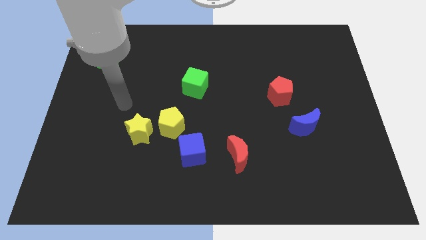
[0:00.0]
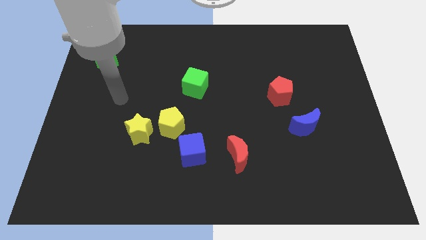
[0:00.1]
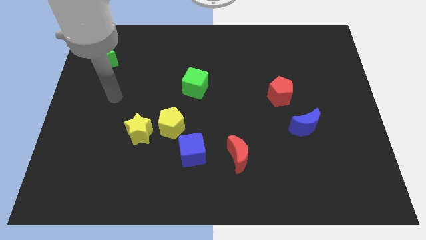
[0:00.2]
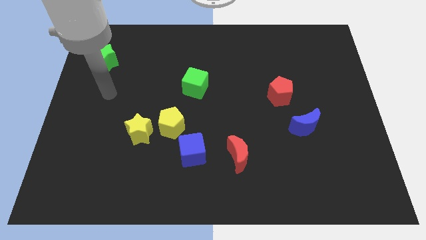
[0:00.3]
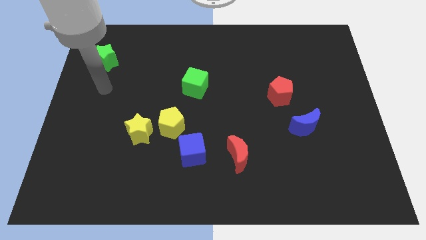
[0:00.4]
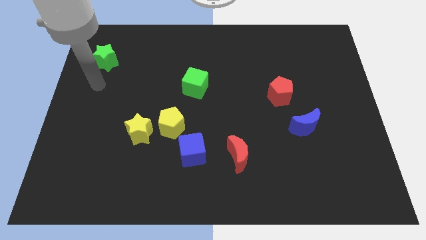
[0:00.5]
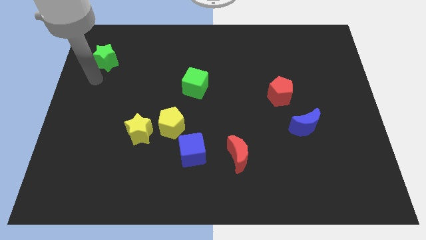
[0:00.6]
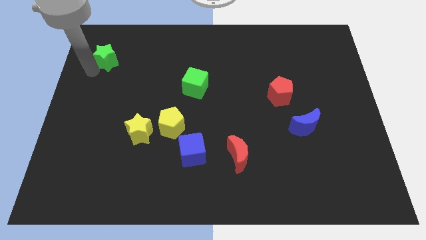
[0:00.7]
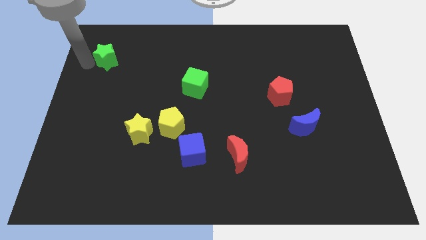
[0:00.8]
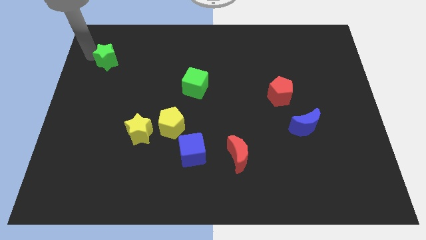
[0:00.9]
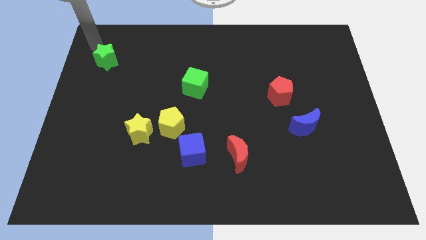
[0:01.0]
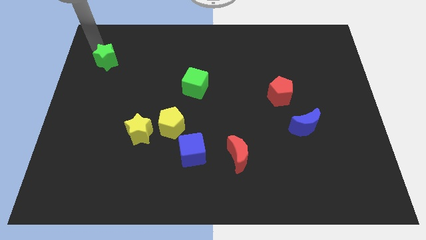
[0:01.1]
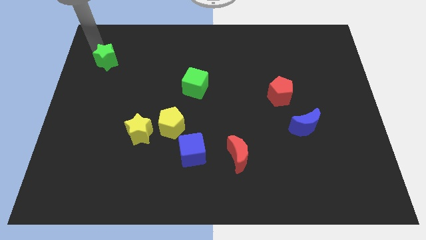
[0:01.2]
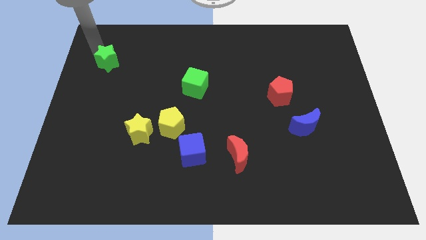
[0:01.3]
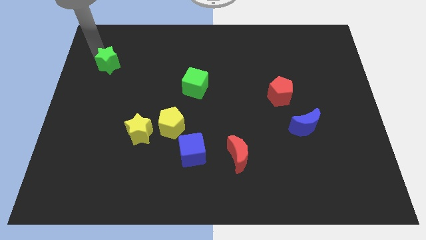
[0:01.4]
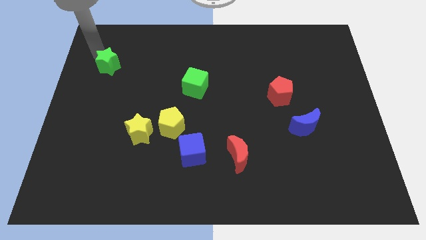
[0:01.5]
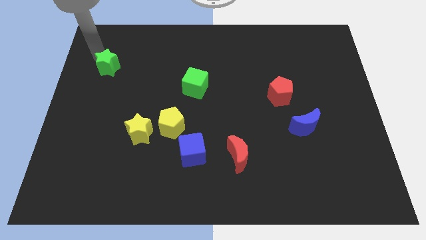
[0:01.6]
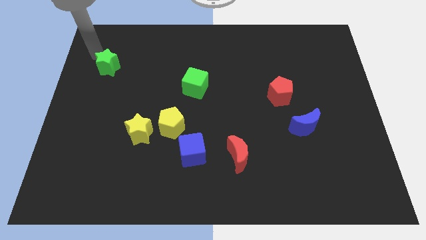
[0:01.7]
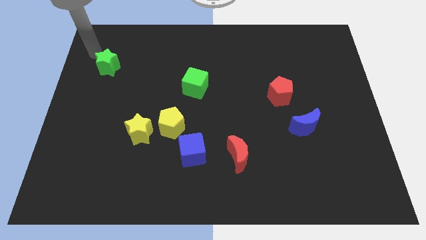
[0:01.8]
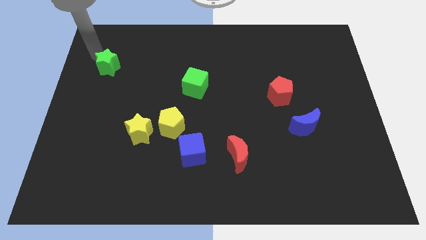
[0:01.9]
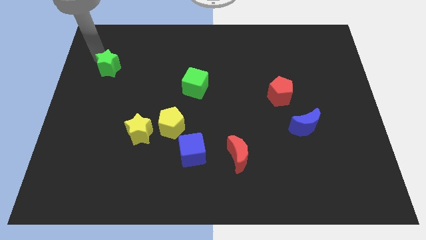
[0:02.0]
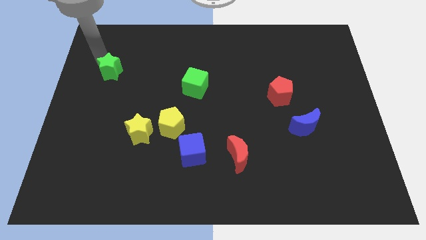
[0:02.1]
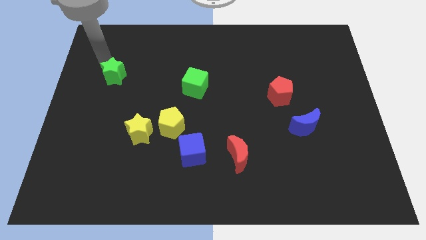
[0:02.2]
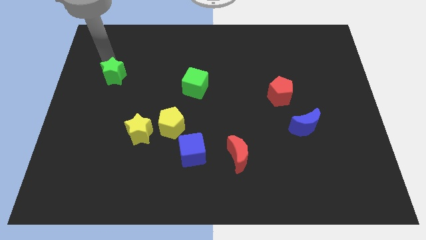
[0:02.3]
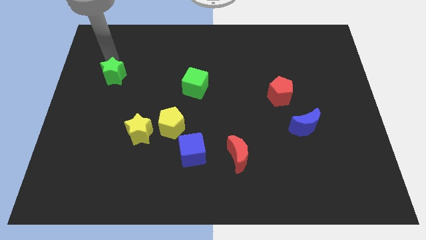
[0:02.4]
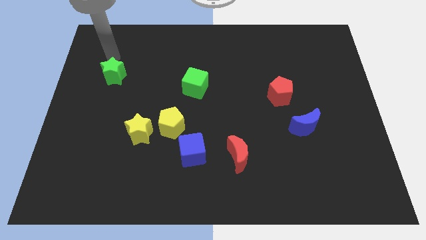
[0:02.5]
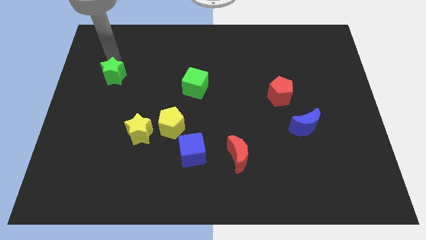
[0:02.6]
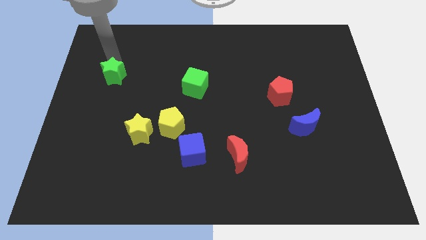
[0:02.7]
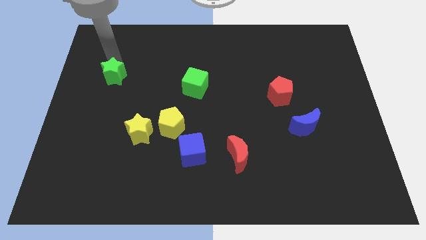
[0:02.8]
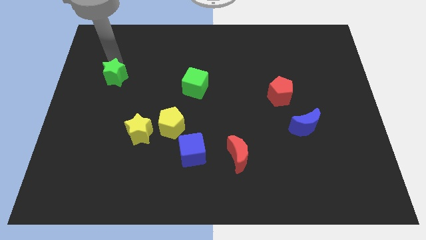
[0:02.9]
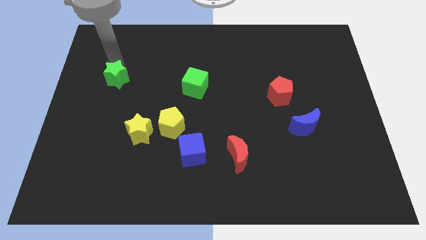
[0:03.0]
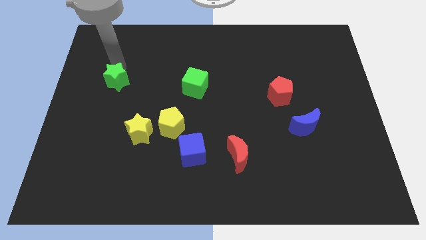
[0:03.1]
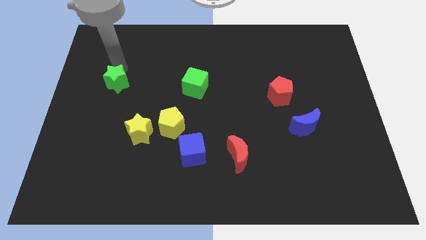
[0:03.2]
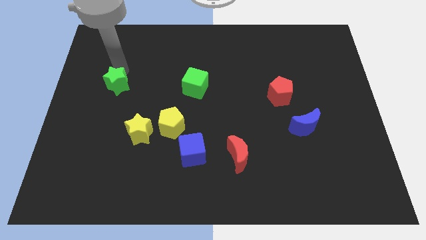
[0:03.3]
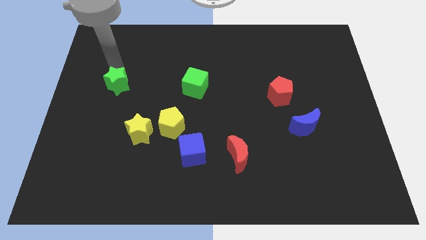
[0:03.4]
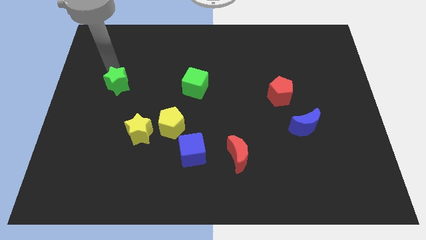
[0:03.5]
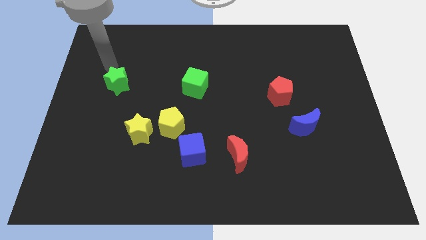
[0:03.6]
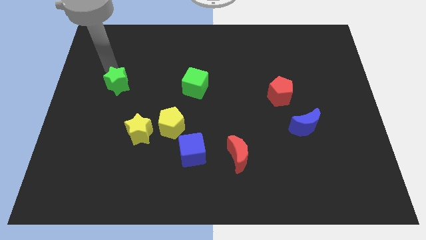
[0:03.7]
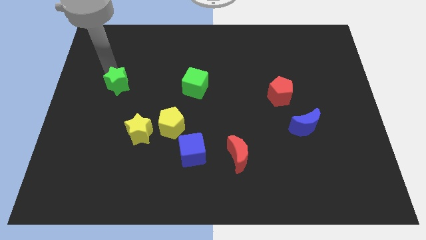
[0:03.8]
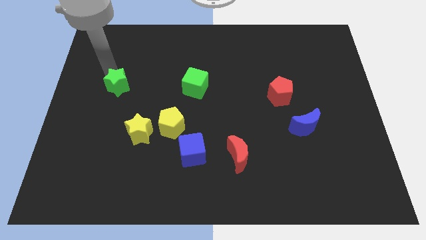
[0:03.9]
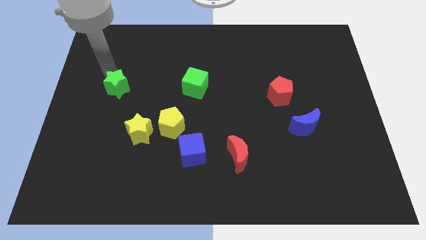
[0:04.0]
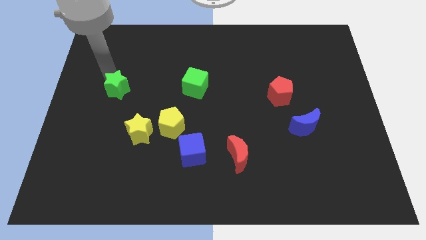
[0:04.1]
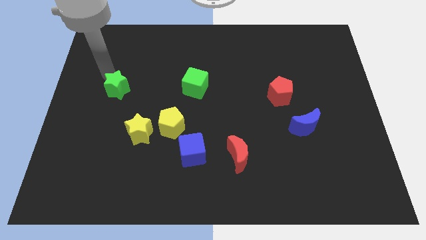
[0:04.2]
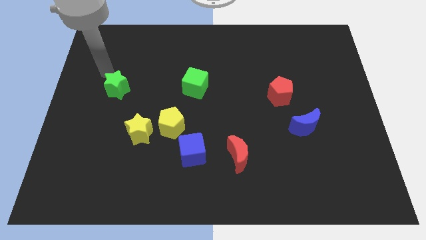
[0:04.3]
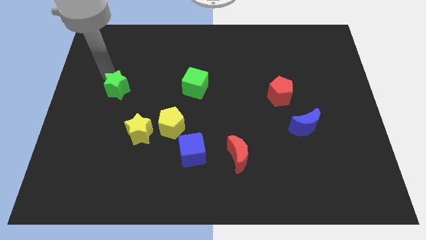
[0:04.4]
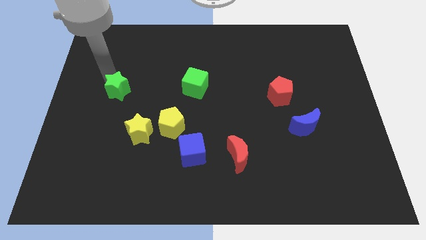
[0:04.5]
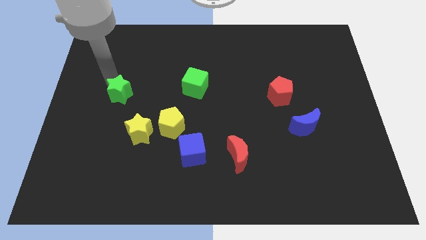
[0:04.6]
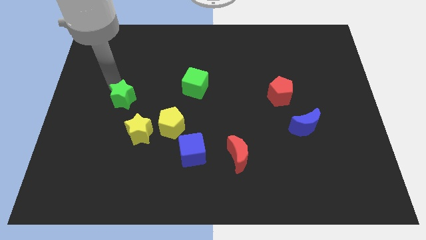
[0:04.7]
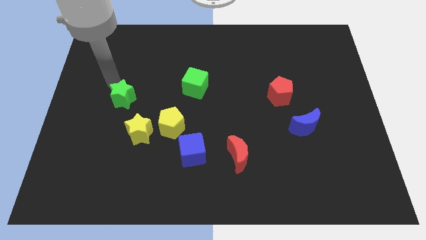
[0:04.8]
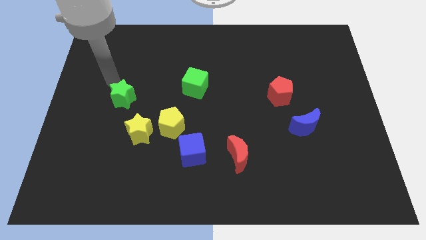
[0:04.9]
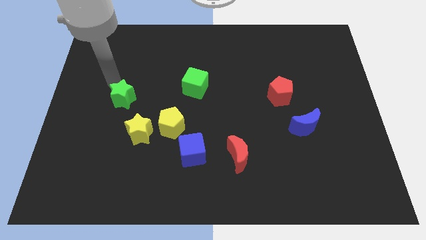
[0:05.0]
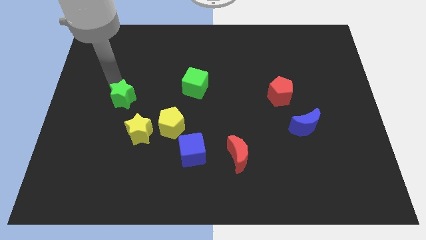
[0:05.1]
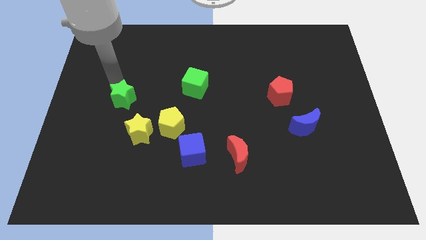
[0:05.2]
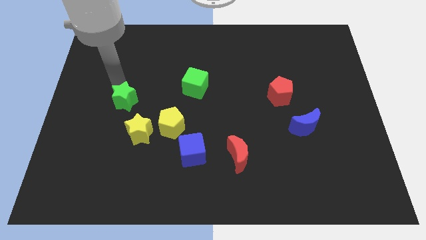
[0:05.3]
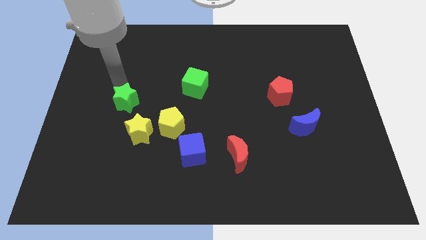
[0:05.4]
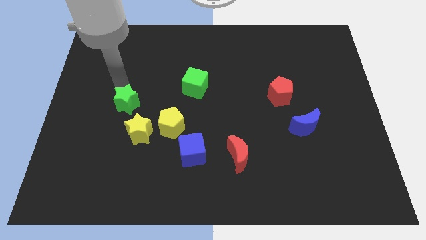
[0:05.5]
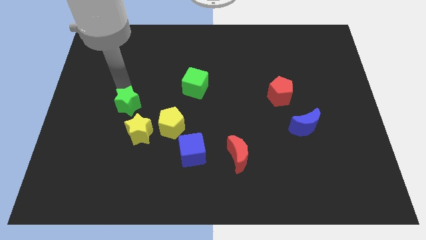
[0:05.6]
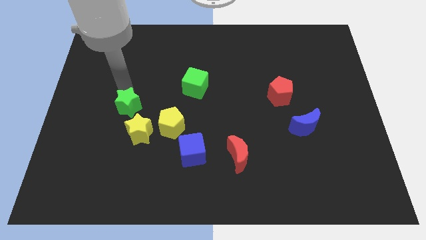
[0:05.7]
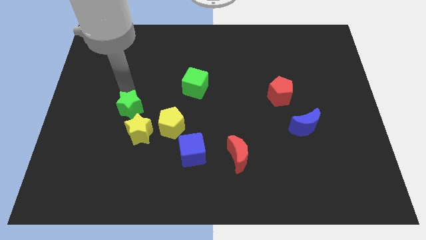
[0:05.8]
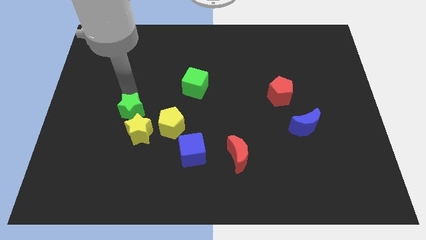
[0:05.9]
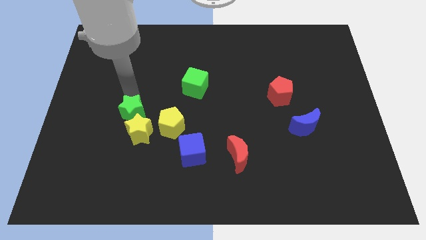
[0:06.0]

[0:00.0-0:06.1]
put the green star next to the yellow star
